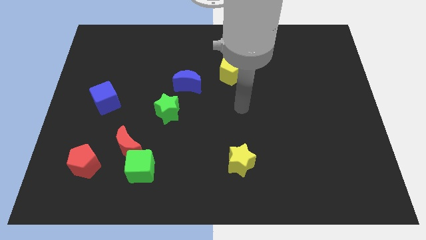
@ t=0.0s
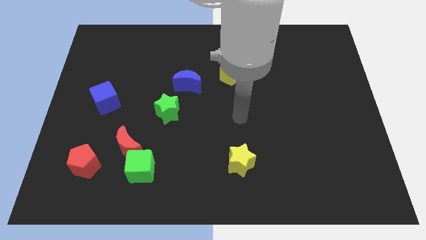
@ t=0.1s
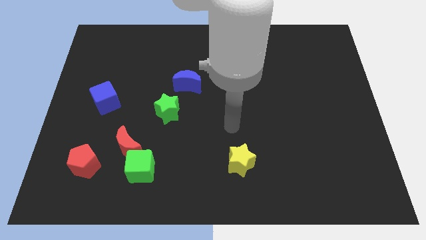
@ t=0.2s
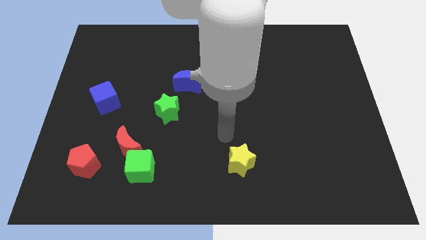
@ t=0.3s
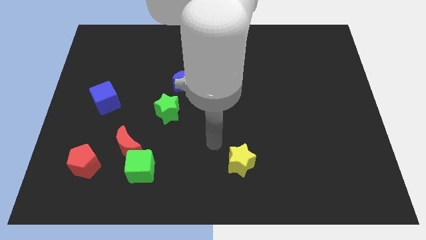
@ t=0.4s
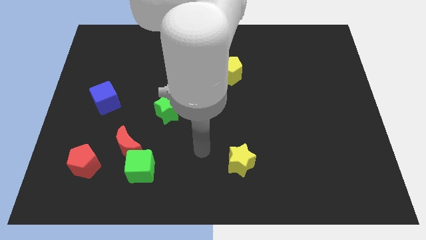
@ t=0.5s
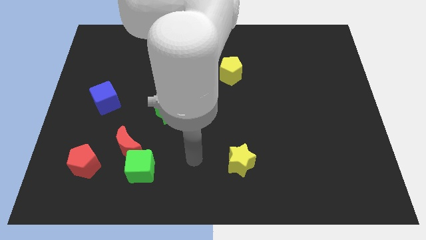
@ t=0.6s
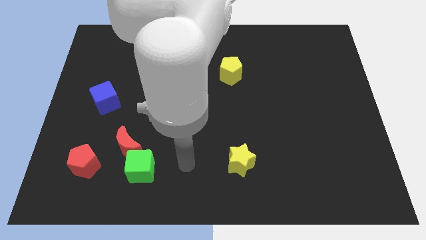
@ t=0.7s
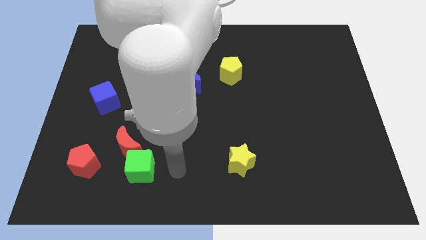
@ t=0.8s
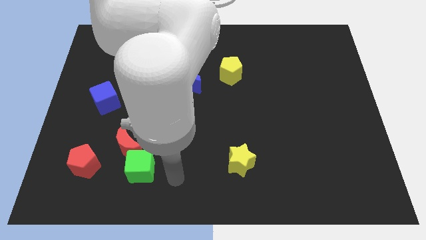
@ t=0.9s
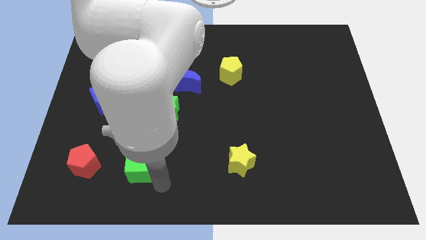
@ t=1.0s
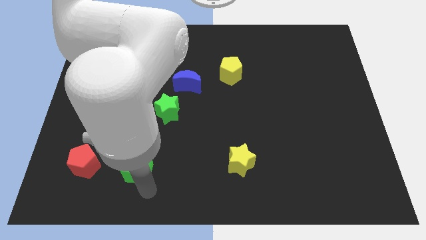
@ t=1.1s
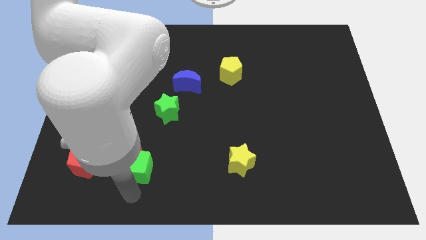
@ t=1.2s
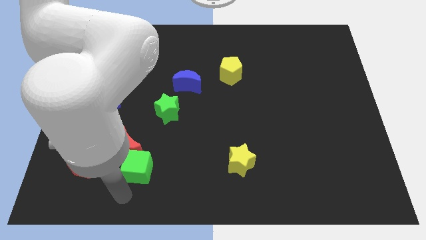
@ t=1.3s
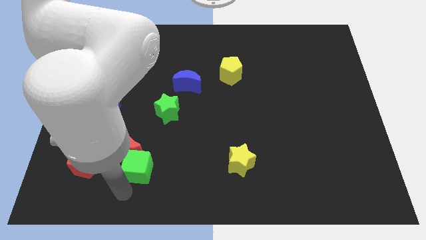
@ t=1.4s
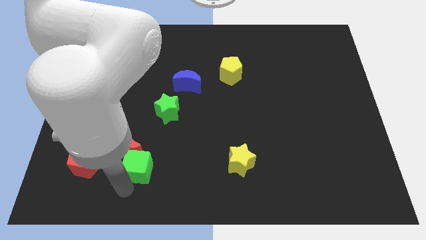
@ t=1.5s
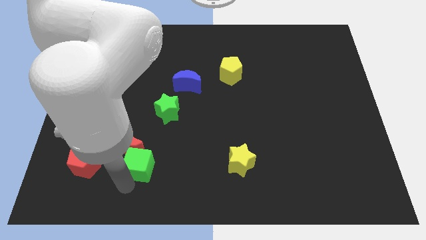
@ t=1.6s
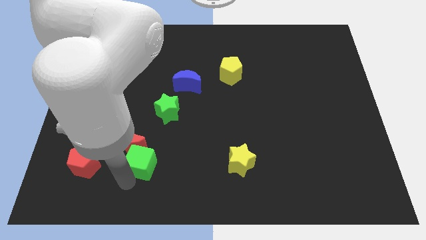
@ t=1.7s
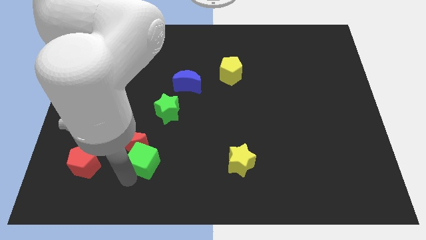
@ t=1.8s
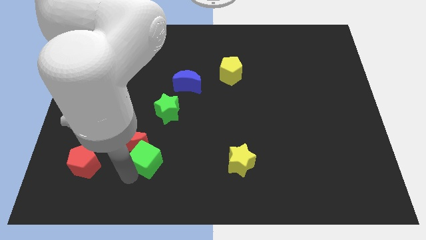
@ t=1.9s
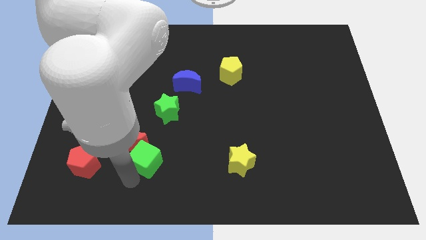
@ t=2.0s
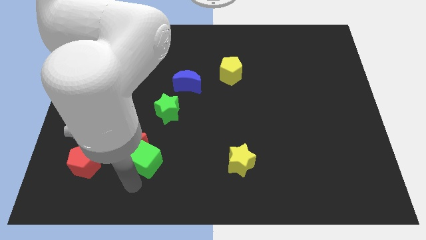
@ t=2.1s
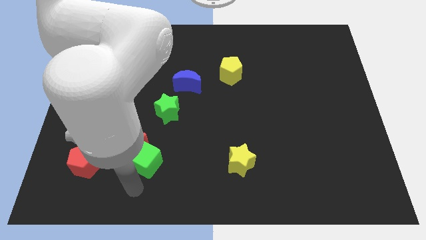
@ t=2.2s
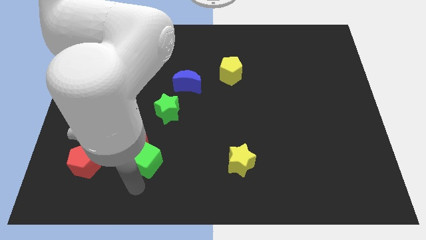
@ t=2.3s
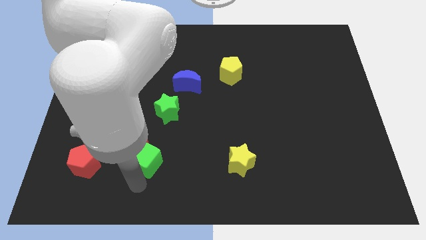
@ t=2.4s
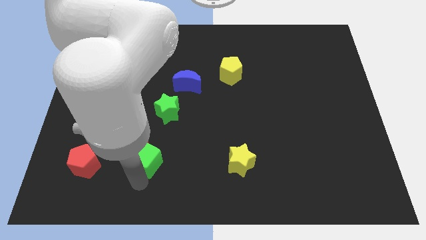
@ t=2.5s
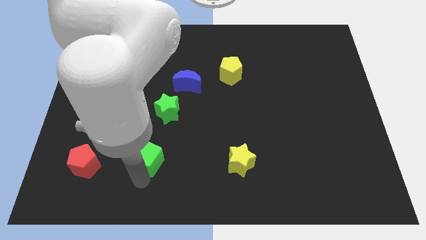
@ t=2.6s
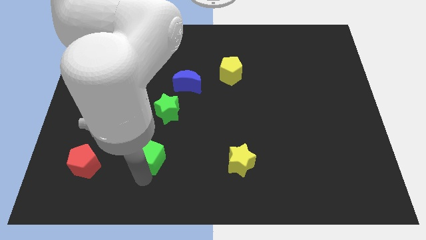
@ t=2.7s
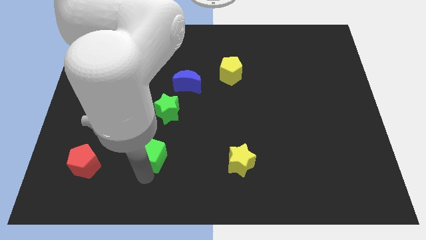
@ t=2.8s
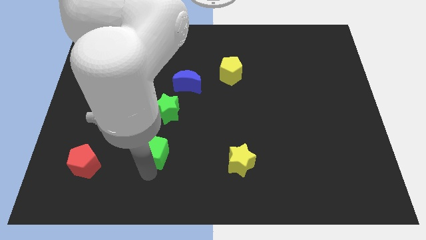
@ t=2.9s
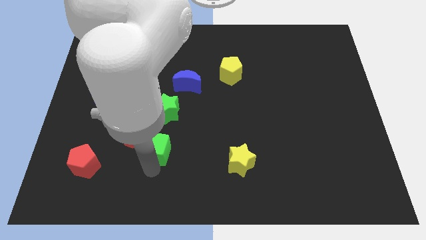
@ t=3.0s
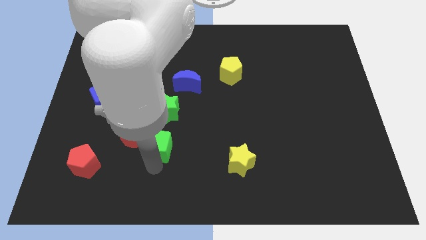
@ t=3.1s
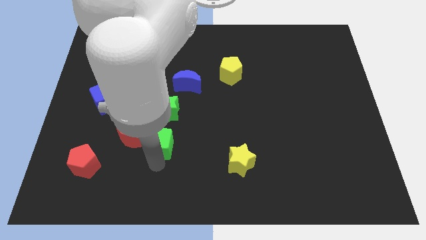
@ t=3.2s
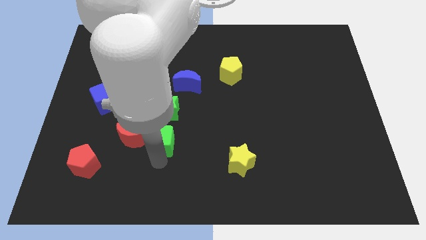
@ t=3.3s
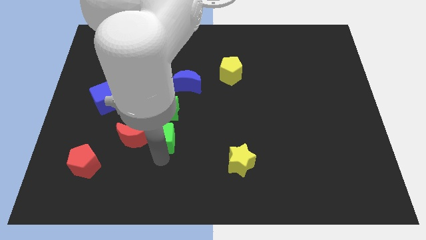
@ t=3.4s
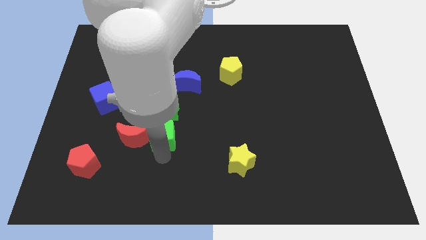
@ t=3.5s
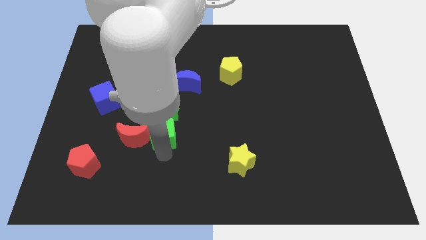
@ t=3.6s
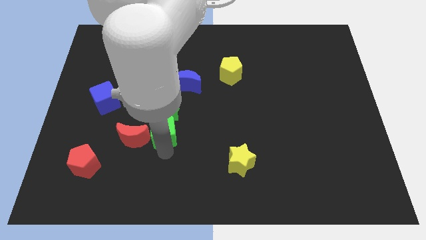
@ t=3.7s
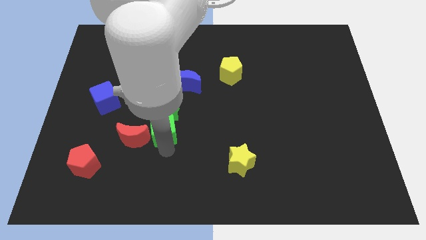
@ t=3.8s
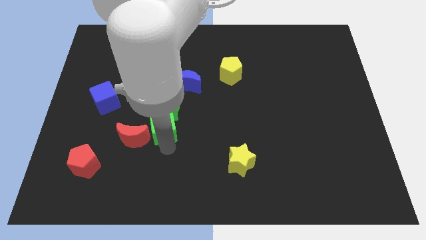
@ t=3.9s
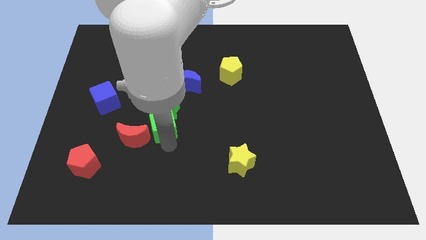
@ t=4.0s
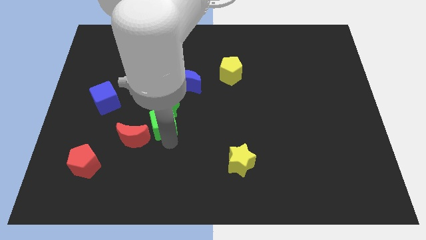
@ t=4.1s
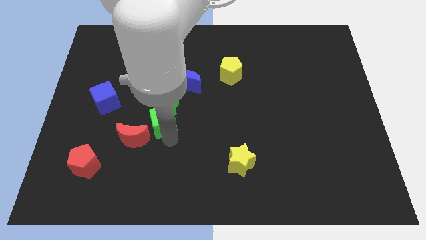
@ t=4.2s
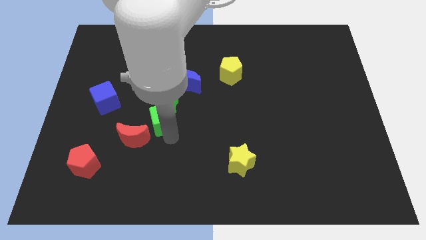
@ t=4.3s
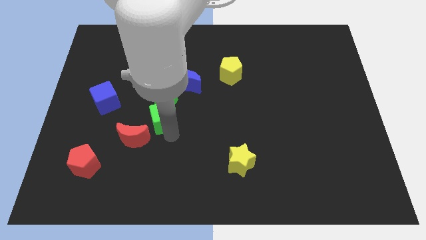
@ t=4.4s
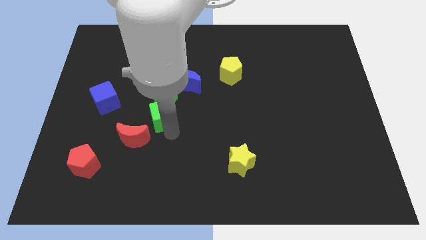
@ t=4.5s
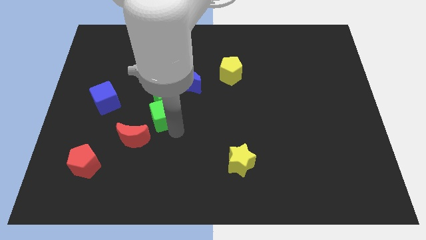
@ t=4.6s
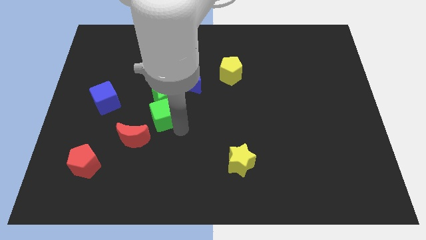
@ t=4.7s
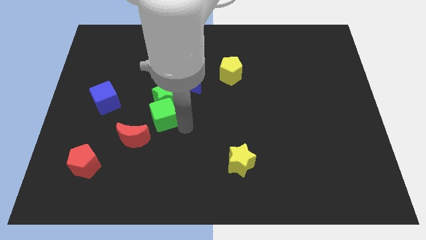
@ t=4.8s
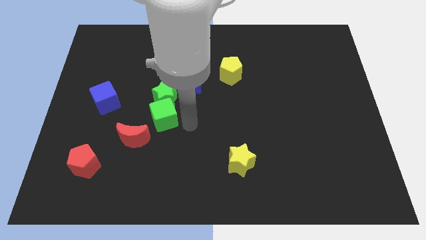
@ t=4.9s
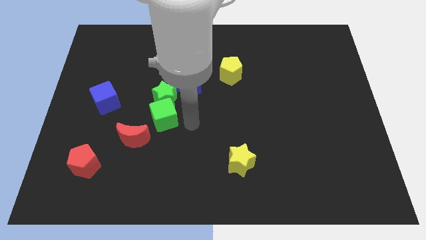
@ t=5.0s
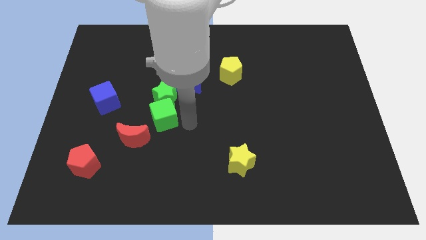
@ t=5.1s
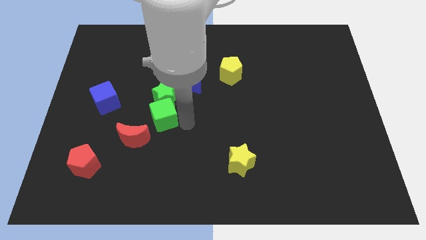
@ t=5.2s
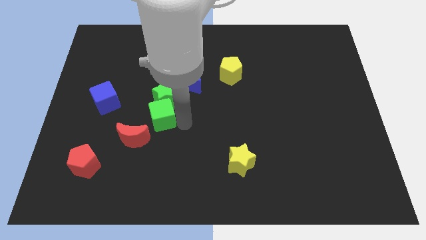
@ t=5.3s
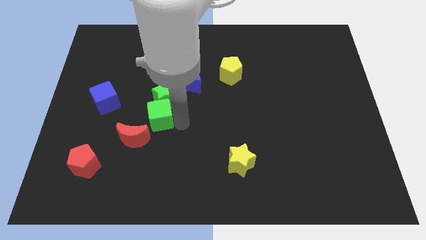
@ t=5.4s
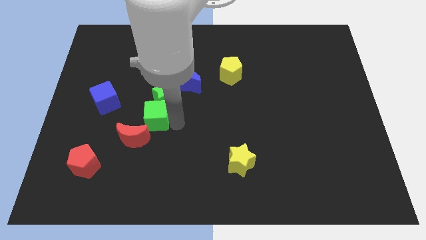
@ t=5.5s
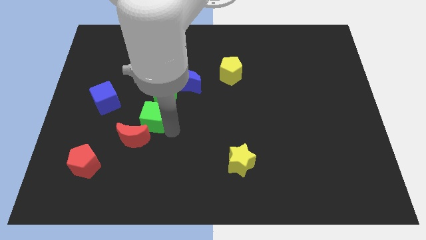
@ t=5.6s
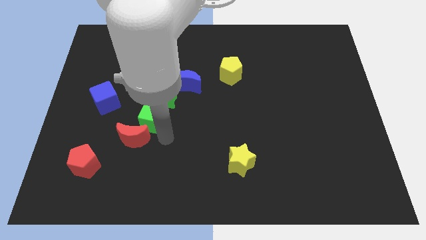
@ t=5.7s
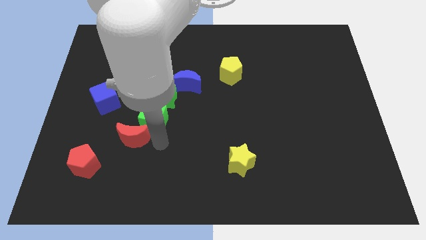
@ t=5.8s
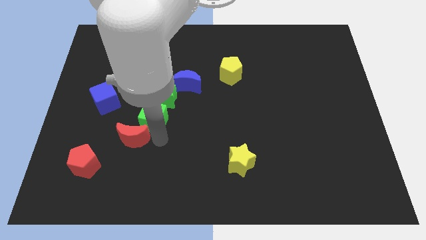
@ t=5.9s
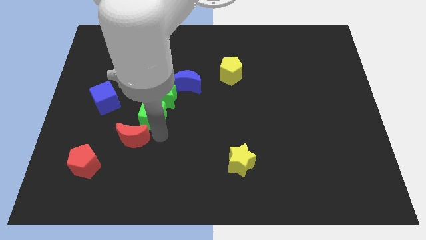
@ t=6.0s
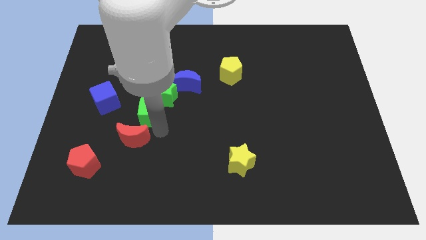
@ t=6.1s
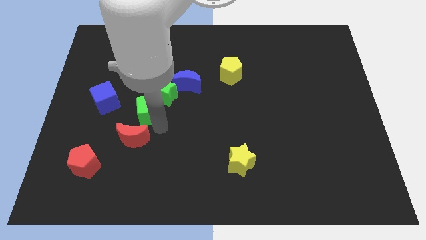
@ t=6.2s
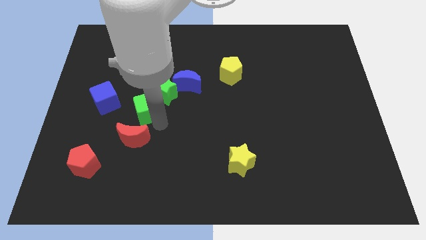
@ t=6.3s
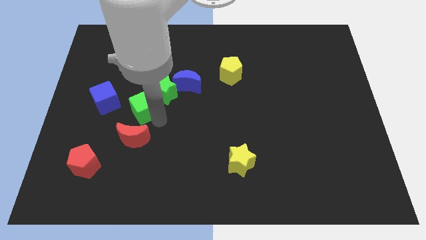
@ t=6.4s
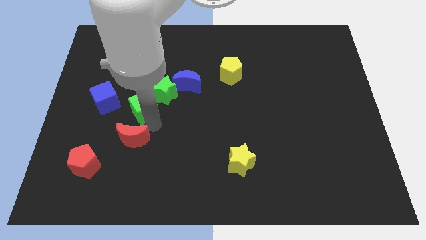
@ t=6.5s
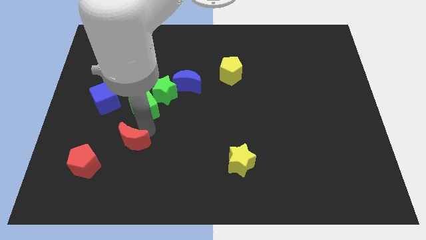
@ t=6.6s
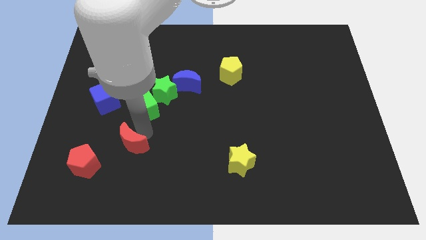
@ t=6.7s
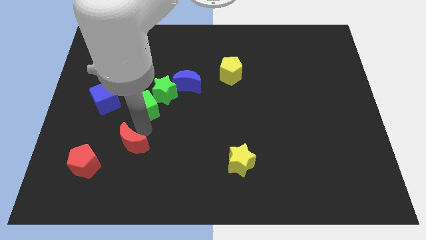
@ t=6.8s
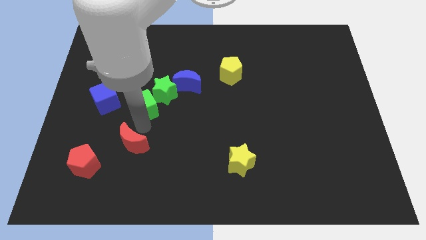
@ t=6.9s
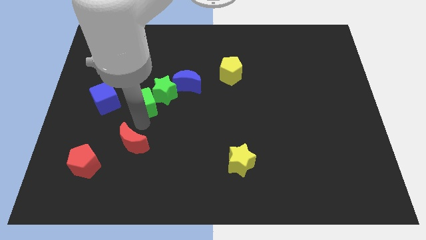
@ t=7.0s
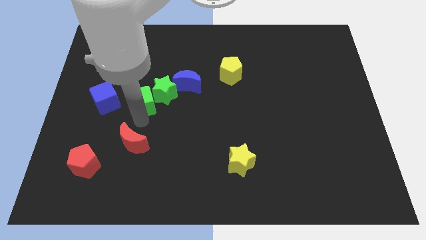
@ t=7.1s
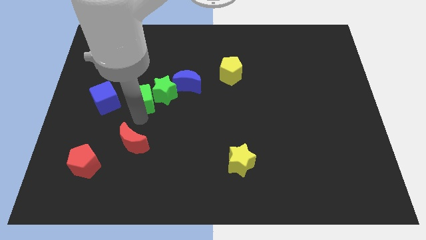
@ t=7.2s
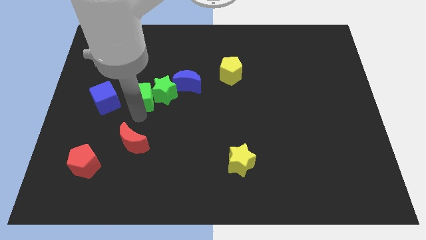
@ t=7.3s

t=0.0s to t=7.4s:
push the green cube to the left side of the blue moon

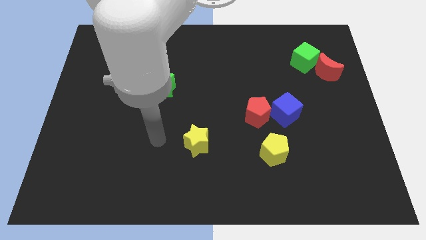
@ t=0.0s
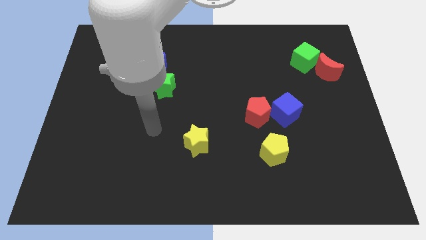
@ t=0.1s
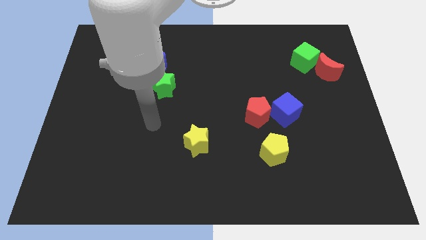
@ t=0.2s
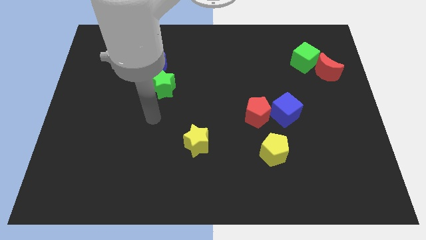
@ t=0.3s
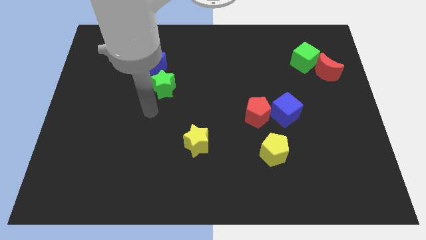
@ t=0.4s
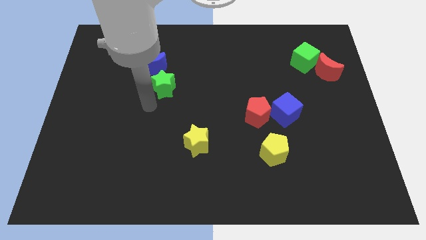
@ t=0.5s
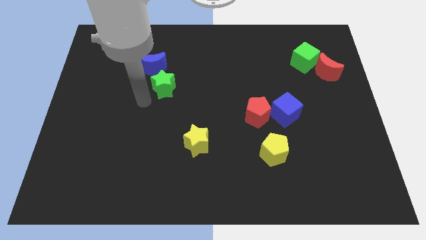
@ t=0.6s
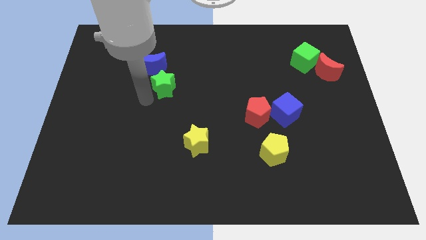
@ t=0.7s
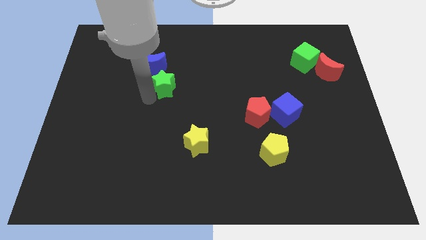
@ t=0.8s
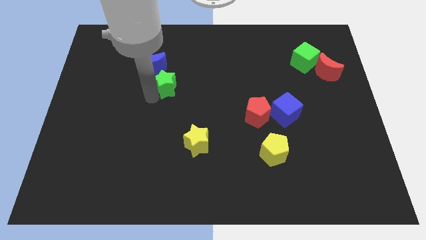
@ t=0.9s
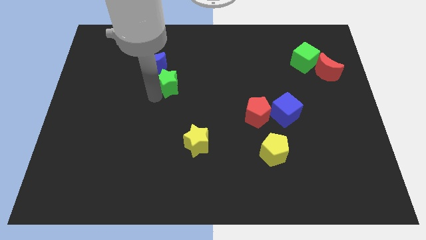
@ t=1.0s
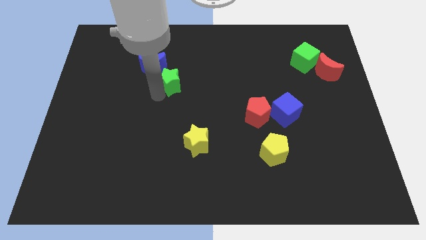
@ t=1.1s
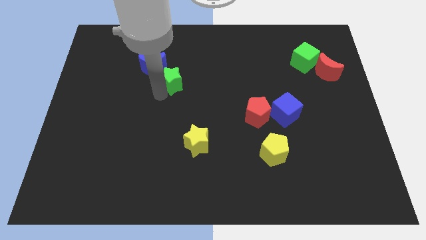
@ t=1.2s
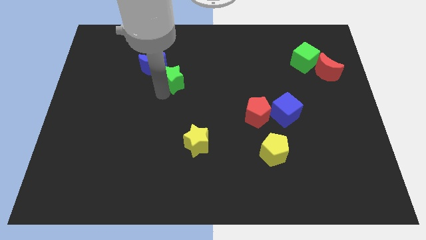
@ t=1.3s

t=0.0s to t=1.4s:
slide the green star just right of the blue moon
